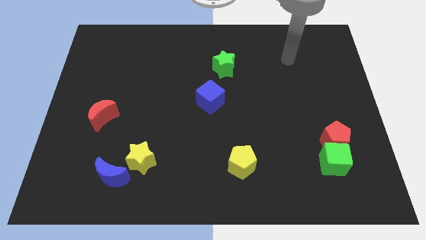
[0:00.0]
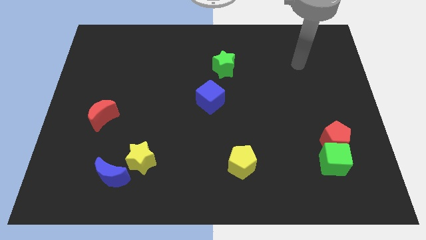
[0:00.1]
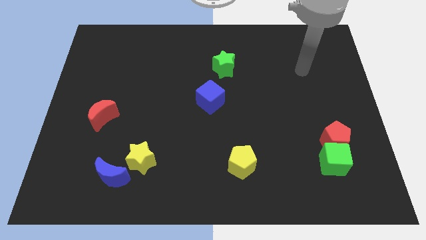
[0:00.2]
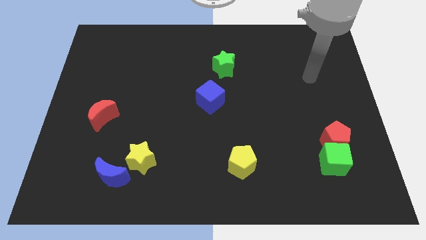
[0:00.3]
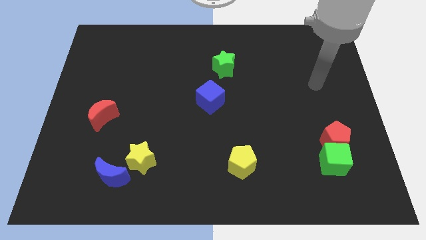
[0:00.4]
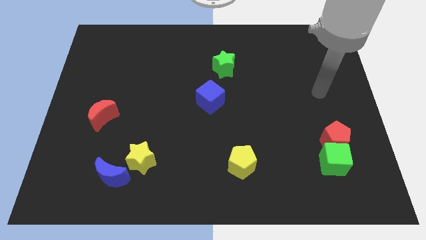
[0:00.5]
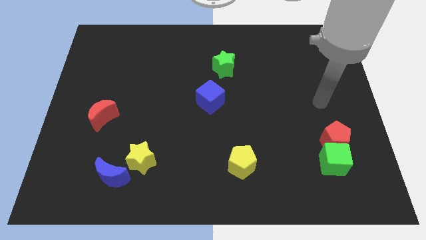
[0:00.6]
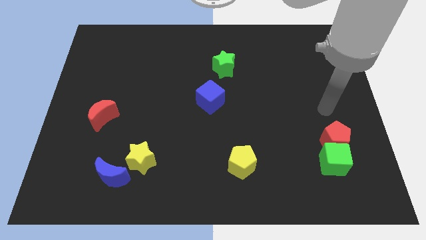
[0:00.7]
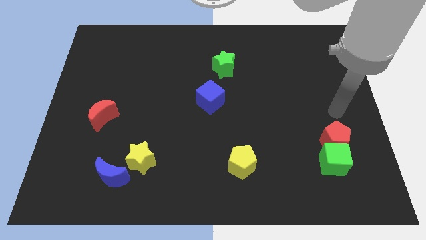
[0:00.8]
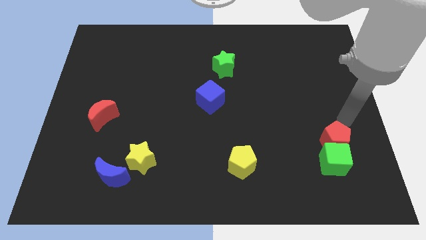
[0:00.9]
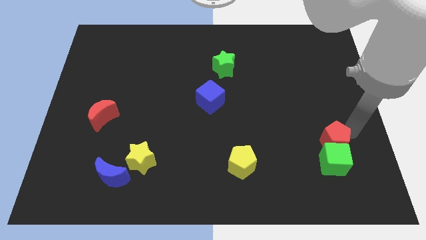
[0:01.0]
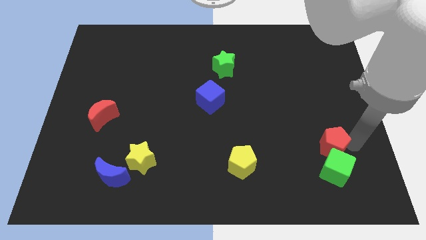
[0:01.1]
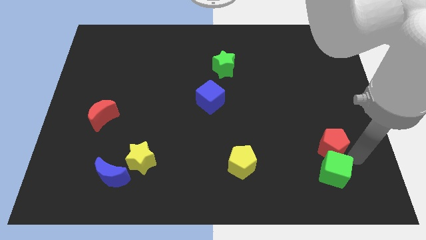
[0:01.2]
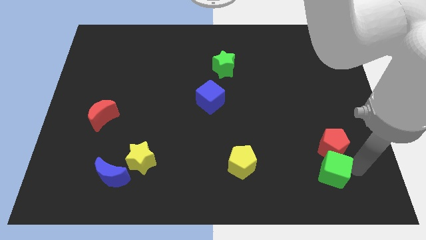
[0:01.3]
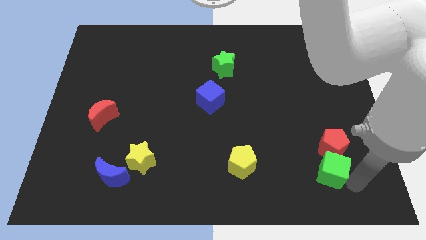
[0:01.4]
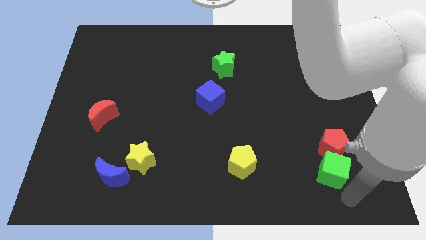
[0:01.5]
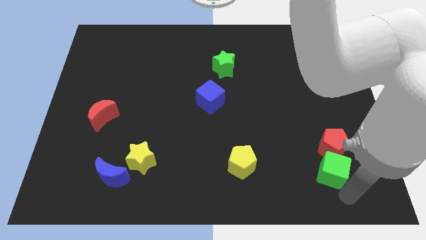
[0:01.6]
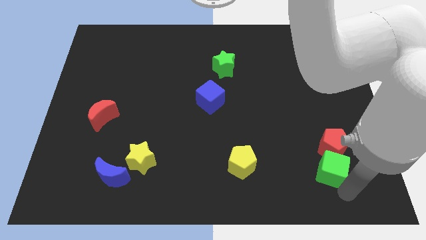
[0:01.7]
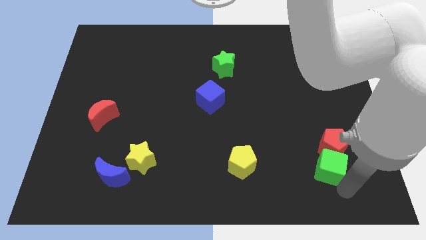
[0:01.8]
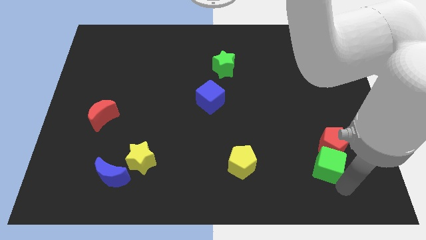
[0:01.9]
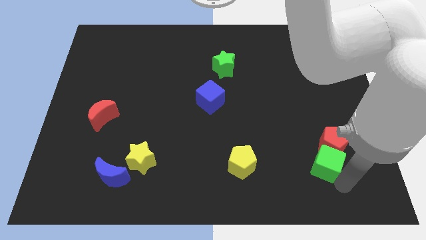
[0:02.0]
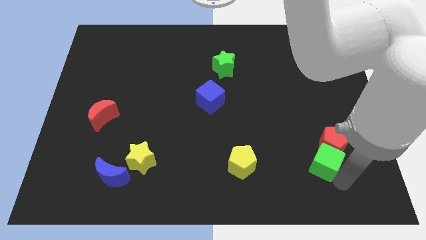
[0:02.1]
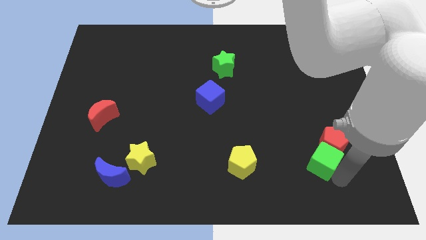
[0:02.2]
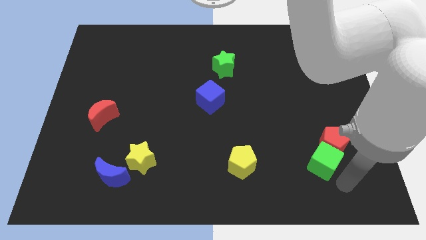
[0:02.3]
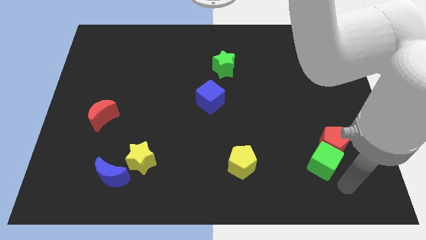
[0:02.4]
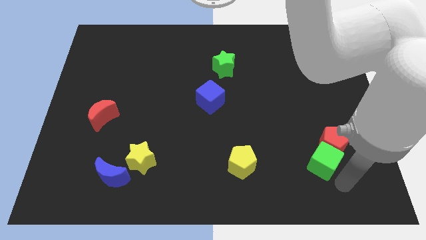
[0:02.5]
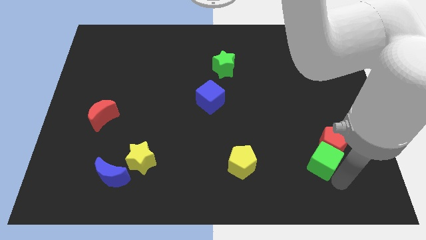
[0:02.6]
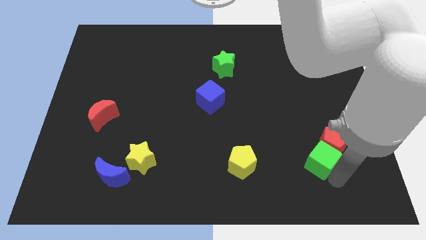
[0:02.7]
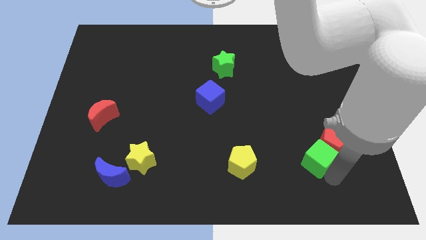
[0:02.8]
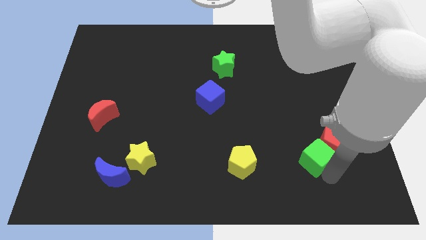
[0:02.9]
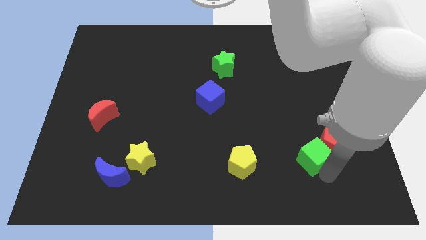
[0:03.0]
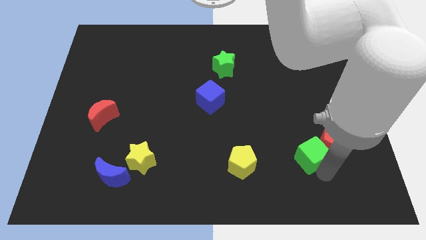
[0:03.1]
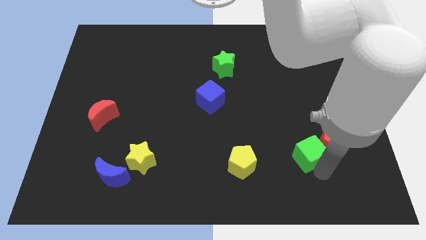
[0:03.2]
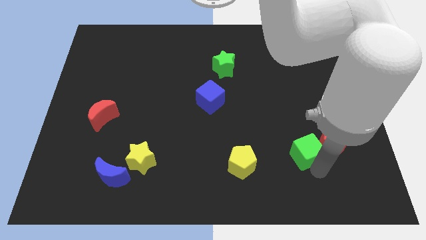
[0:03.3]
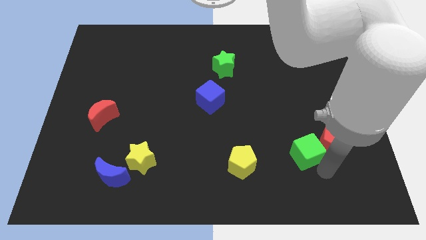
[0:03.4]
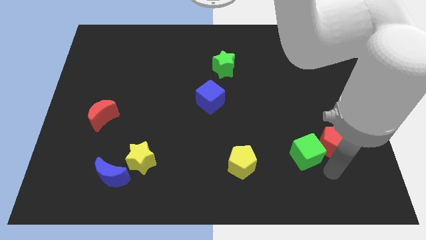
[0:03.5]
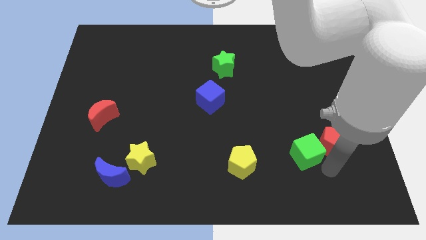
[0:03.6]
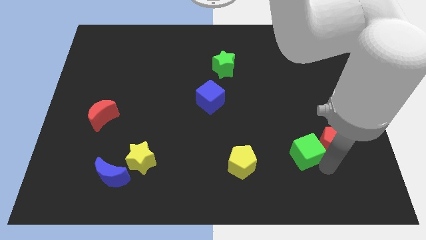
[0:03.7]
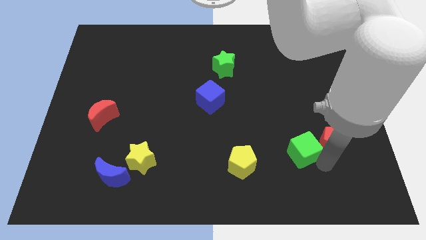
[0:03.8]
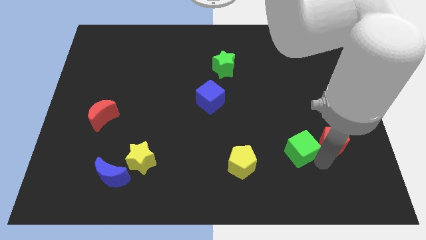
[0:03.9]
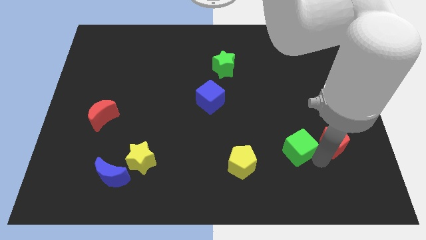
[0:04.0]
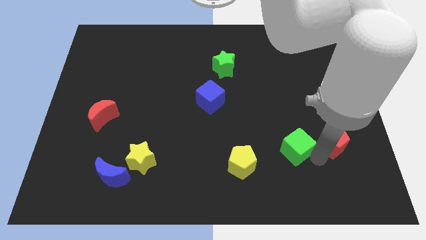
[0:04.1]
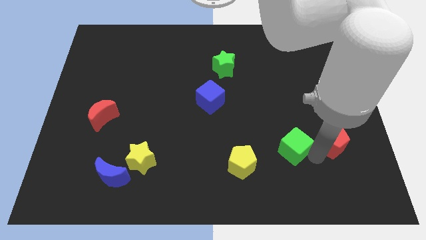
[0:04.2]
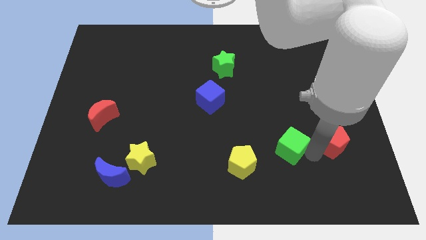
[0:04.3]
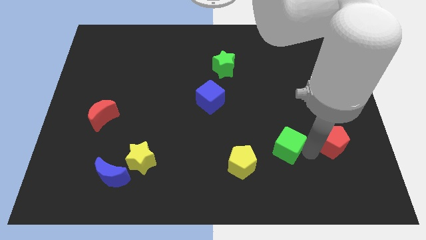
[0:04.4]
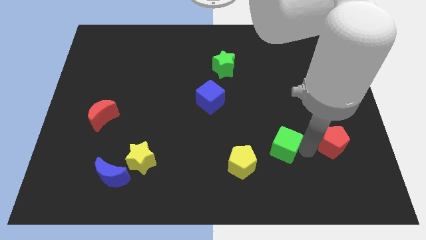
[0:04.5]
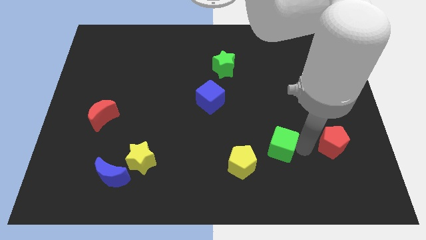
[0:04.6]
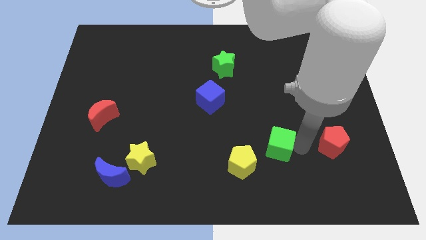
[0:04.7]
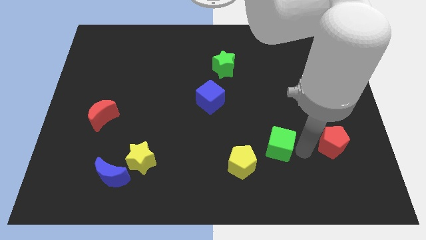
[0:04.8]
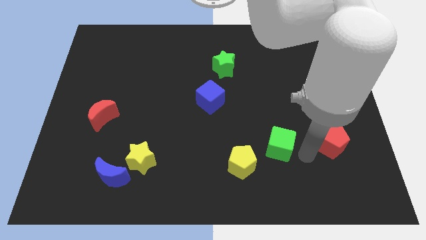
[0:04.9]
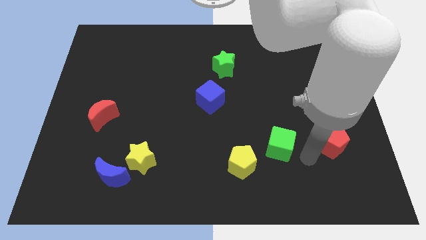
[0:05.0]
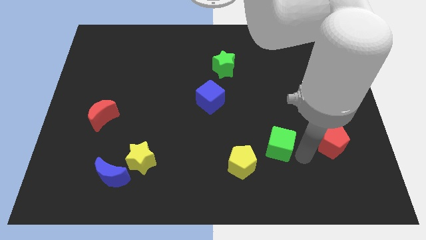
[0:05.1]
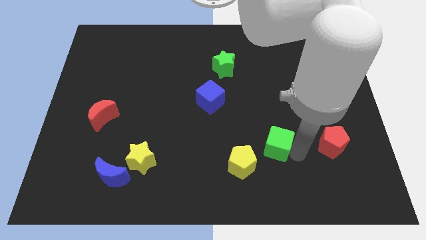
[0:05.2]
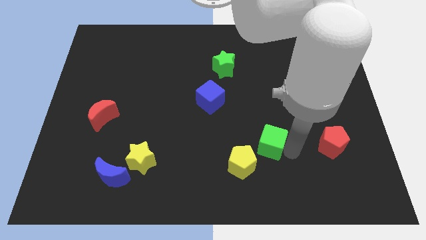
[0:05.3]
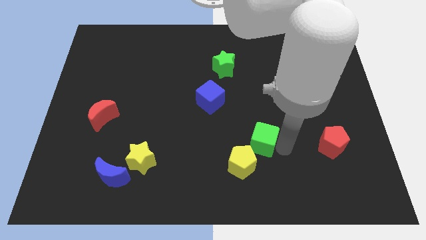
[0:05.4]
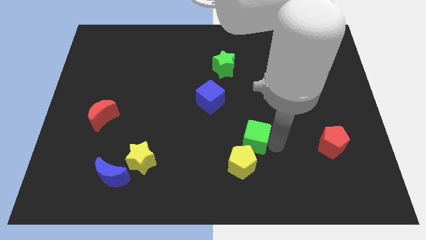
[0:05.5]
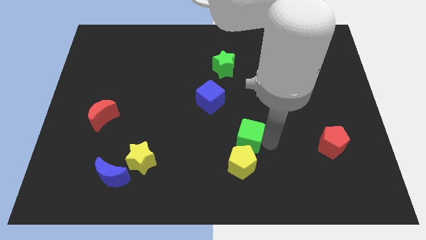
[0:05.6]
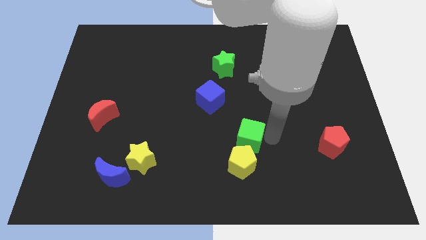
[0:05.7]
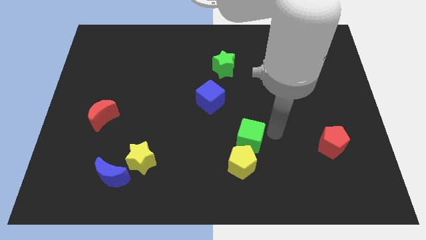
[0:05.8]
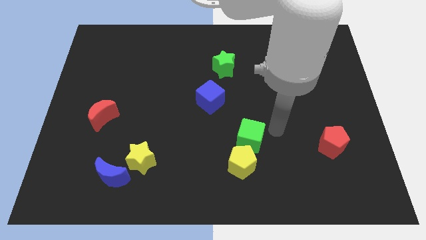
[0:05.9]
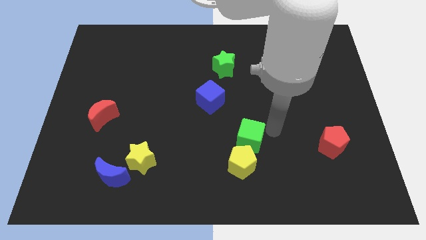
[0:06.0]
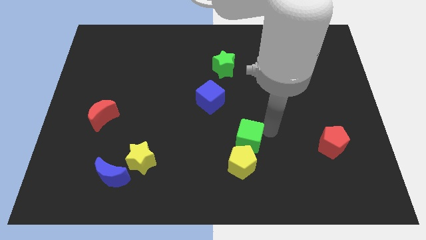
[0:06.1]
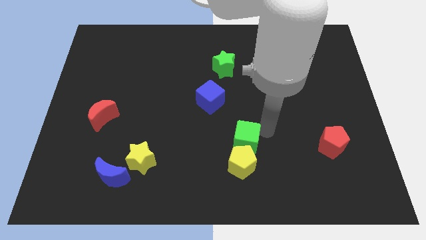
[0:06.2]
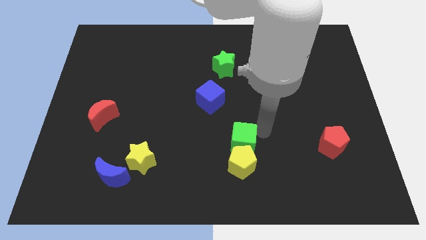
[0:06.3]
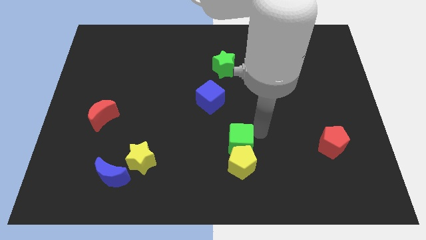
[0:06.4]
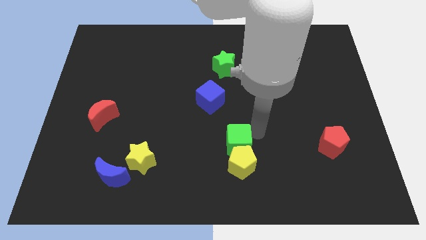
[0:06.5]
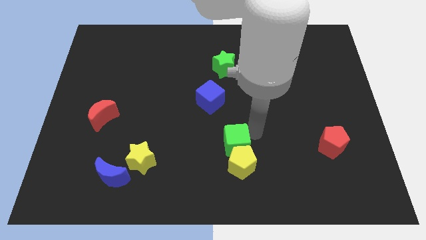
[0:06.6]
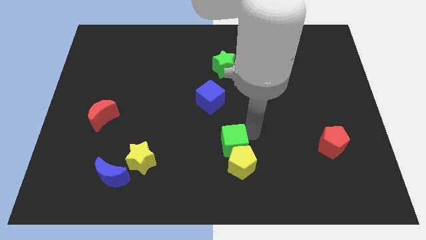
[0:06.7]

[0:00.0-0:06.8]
move the green cube to the left

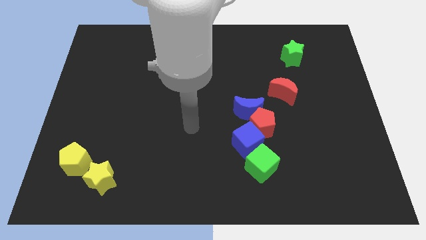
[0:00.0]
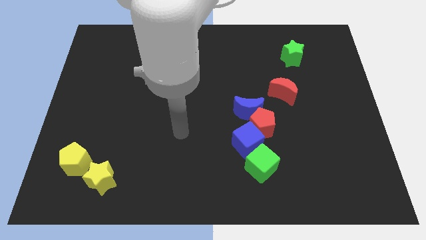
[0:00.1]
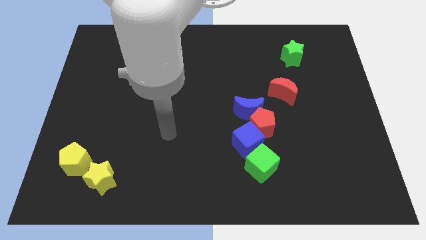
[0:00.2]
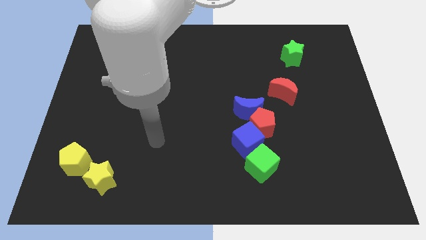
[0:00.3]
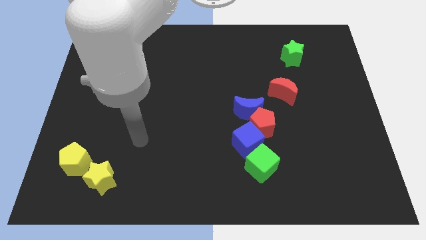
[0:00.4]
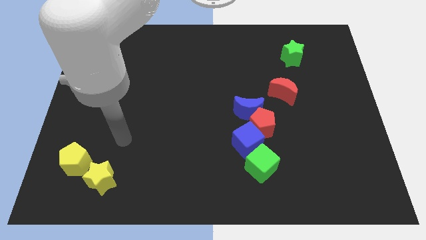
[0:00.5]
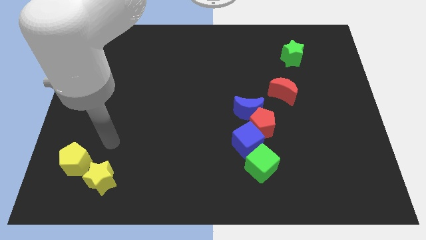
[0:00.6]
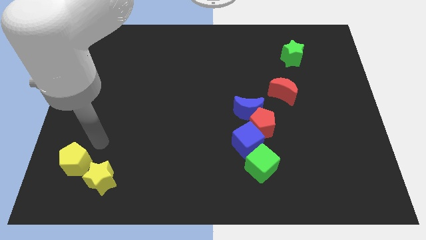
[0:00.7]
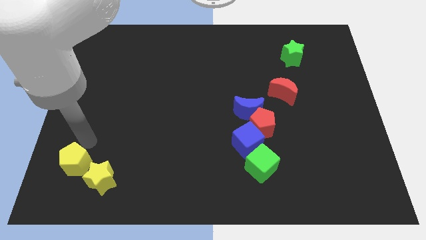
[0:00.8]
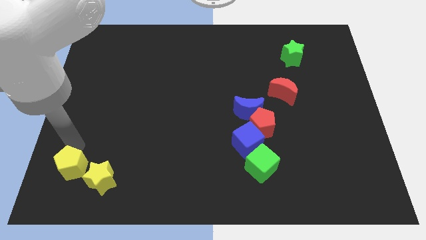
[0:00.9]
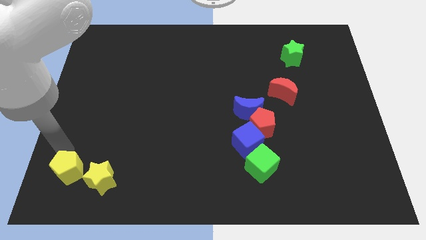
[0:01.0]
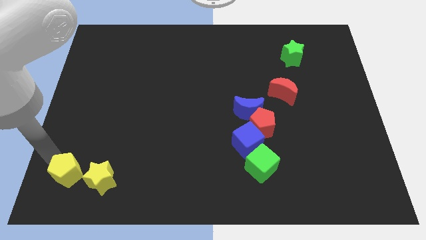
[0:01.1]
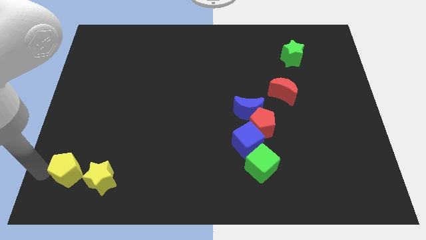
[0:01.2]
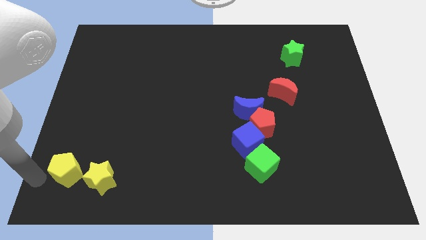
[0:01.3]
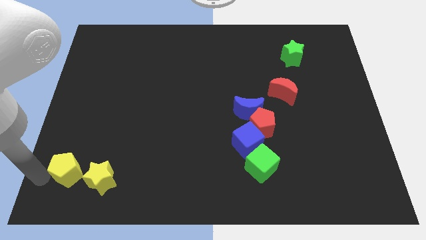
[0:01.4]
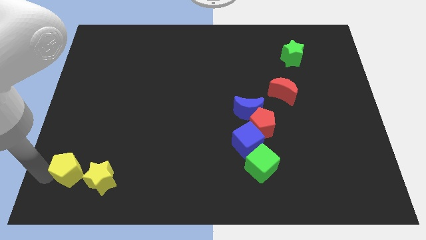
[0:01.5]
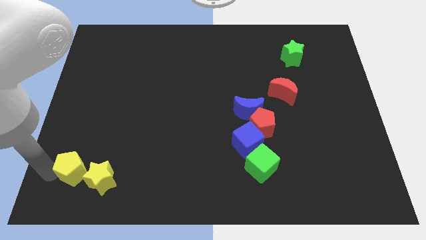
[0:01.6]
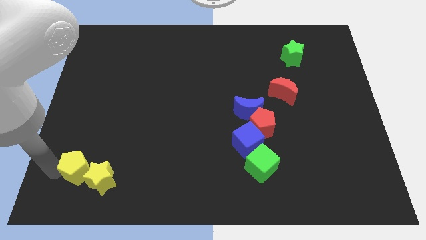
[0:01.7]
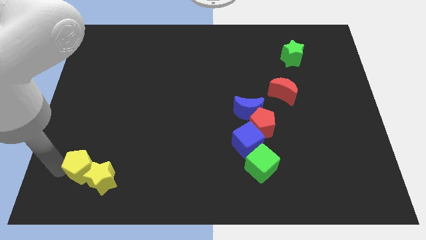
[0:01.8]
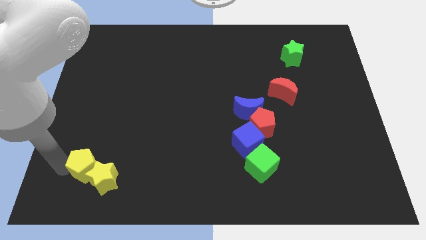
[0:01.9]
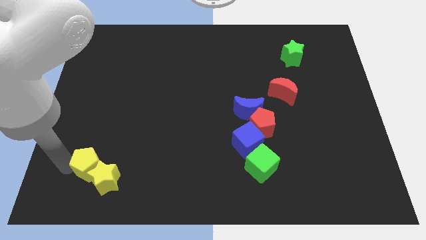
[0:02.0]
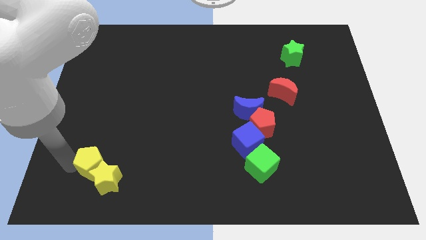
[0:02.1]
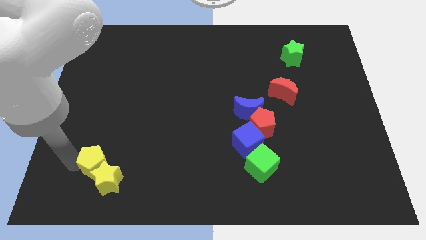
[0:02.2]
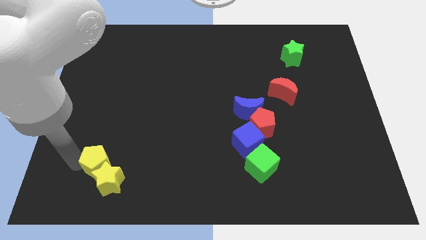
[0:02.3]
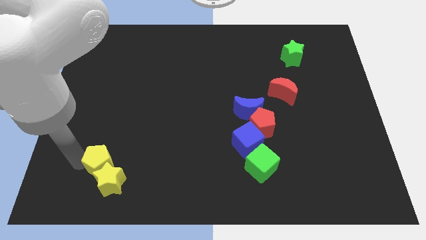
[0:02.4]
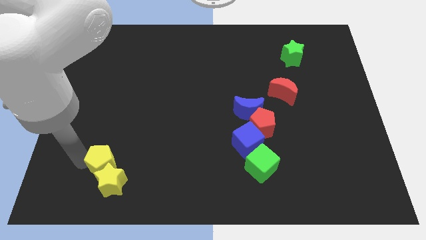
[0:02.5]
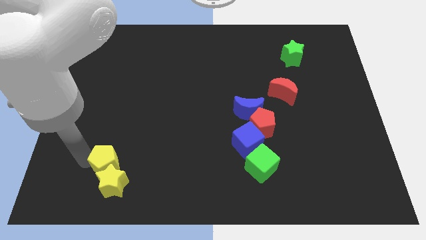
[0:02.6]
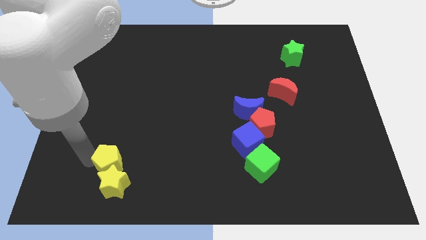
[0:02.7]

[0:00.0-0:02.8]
move the yellow pentagon to the right a little
